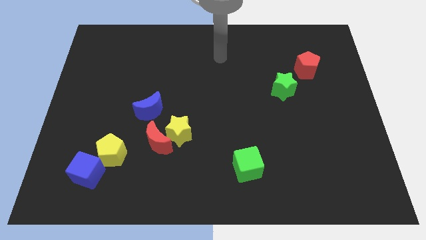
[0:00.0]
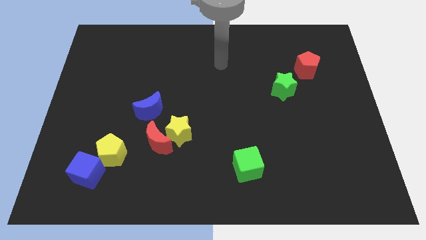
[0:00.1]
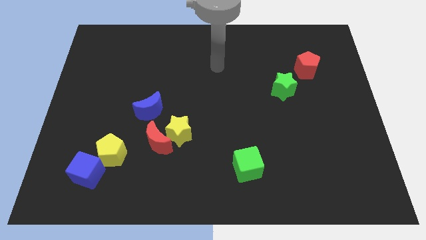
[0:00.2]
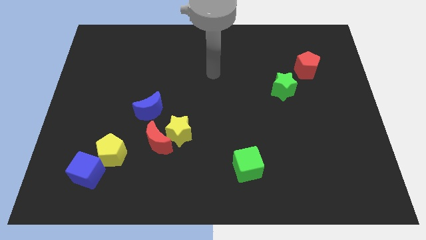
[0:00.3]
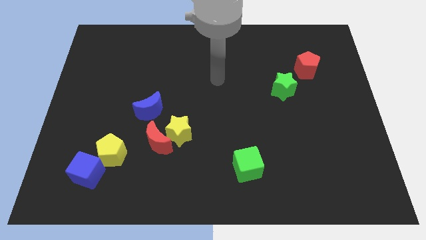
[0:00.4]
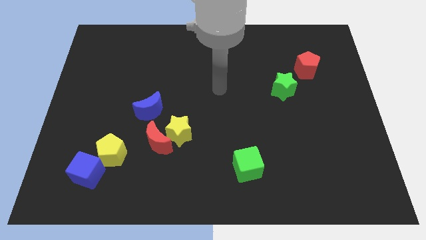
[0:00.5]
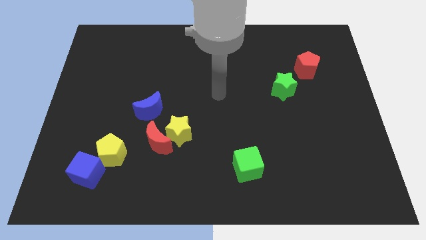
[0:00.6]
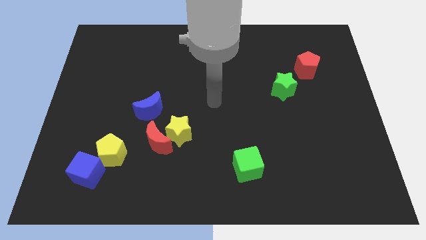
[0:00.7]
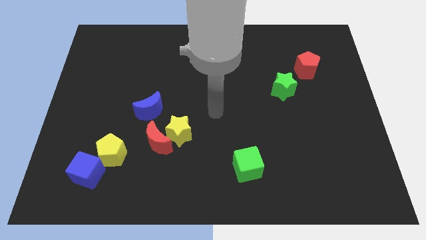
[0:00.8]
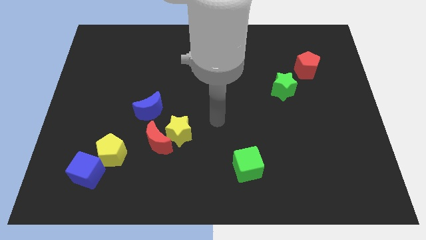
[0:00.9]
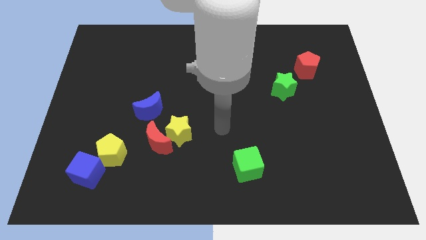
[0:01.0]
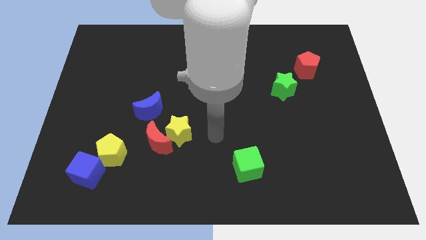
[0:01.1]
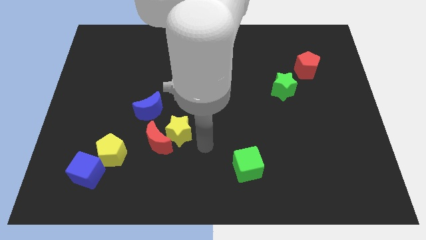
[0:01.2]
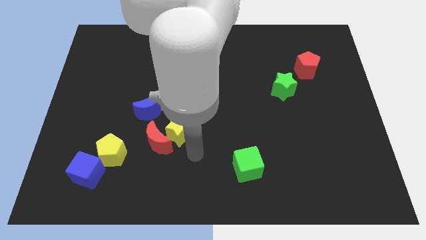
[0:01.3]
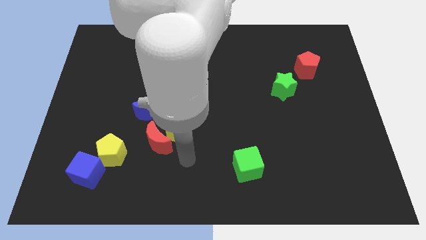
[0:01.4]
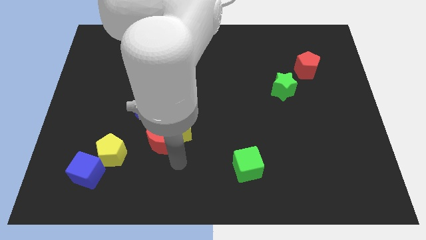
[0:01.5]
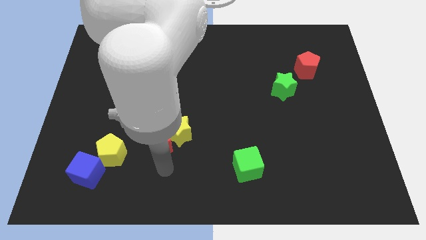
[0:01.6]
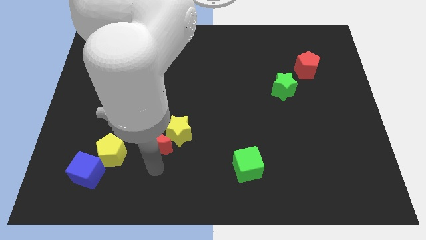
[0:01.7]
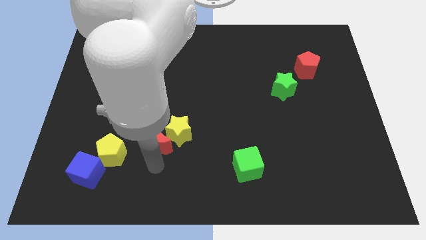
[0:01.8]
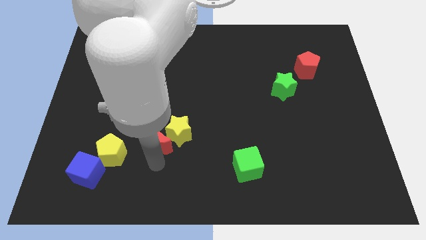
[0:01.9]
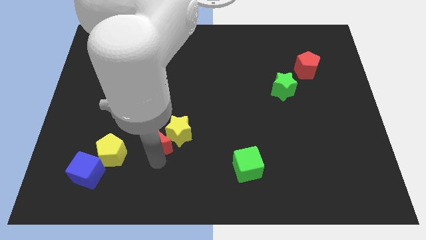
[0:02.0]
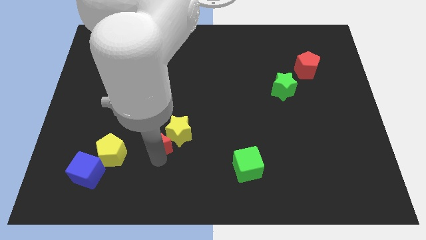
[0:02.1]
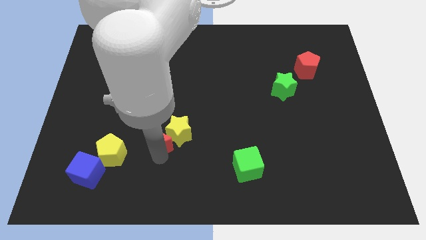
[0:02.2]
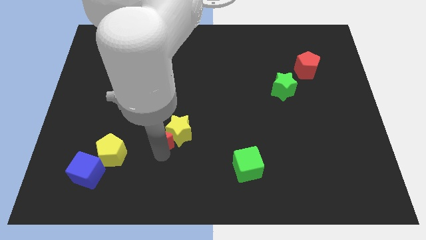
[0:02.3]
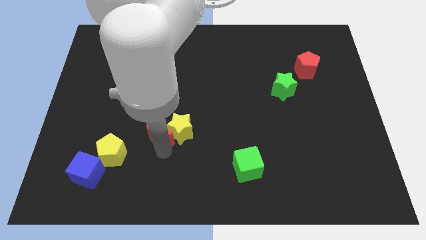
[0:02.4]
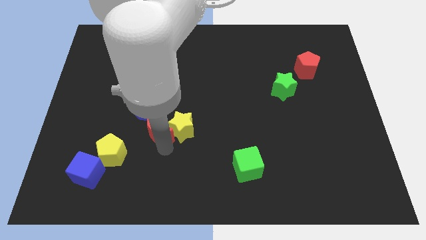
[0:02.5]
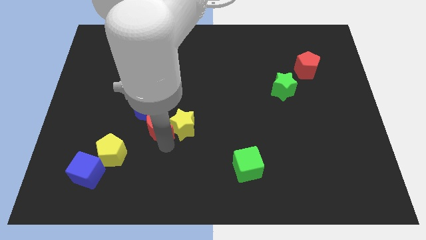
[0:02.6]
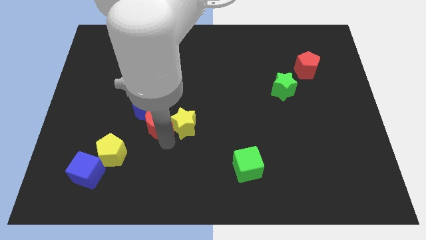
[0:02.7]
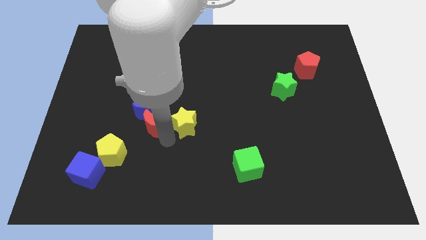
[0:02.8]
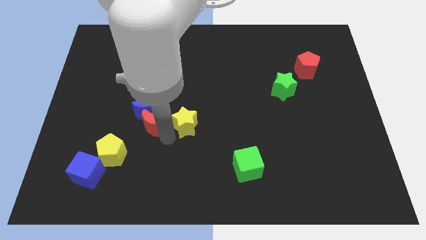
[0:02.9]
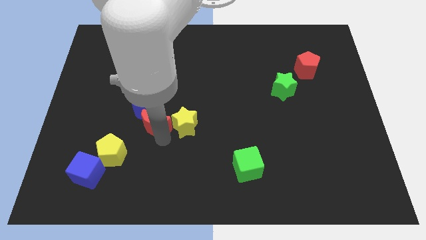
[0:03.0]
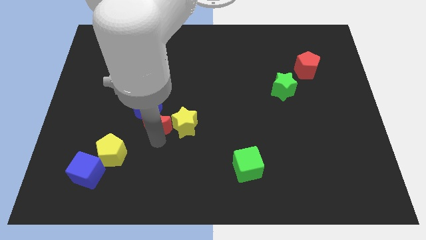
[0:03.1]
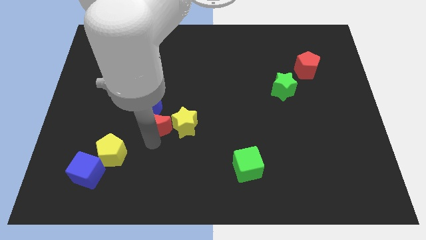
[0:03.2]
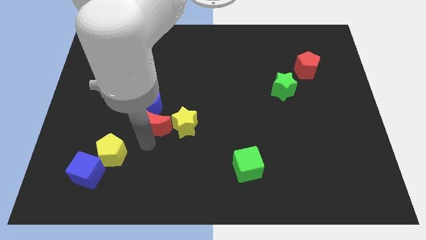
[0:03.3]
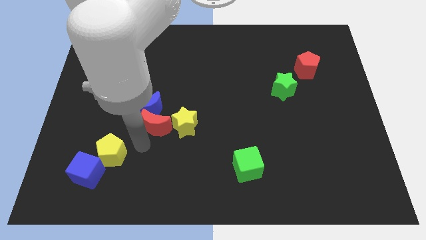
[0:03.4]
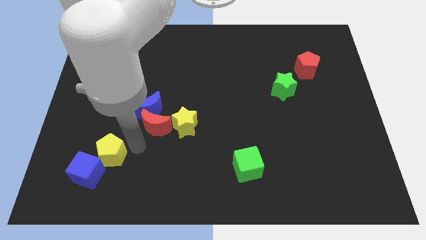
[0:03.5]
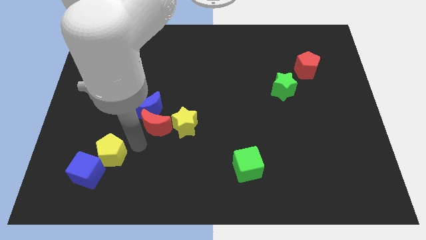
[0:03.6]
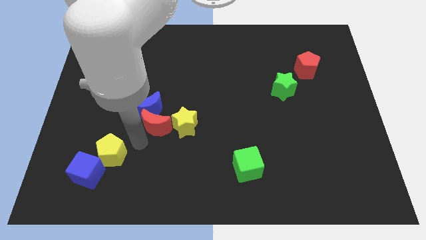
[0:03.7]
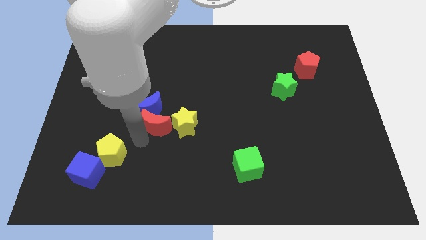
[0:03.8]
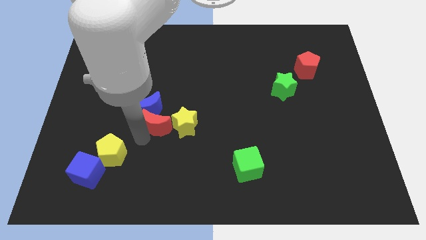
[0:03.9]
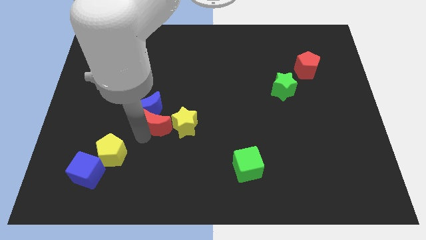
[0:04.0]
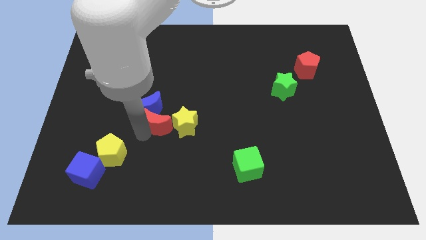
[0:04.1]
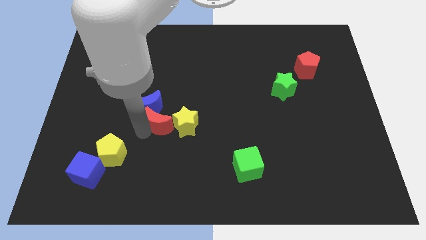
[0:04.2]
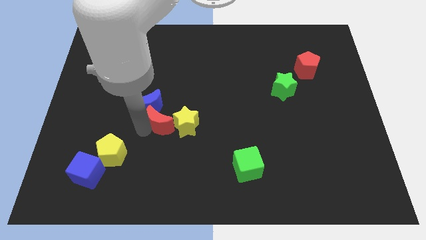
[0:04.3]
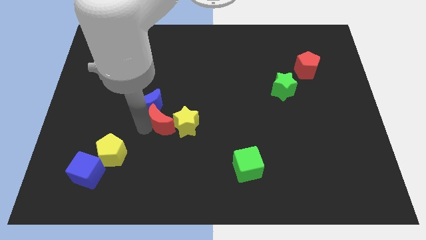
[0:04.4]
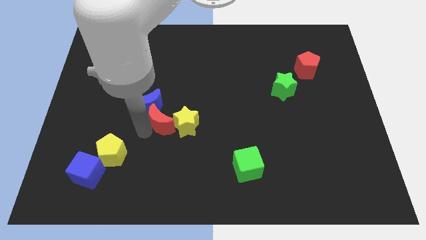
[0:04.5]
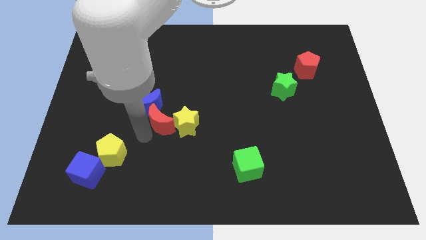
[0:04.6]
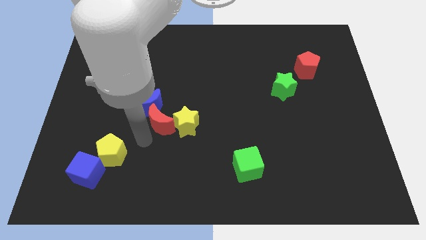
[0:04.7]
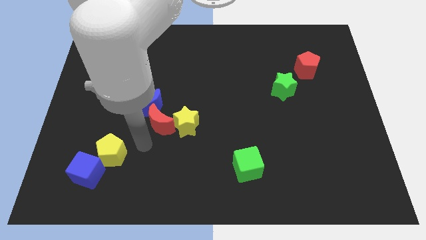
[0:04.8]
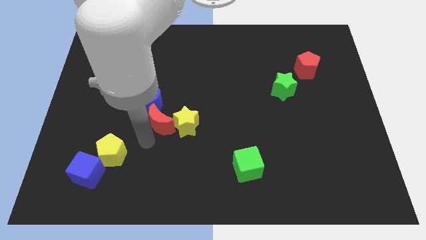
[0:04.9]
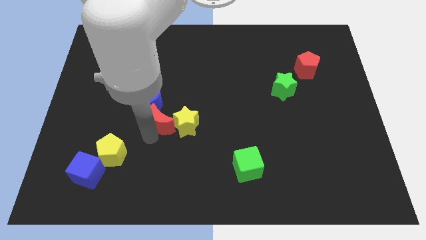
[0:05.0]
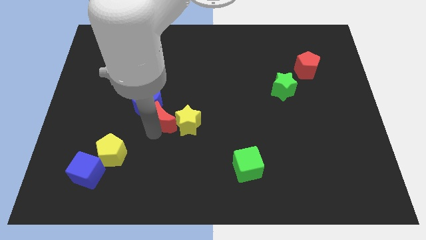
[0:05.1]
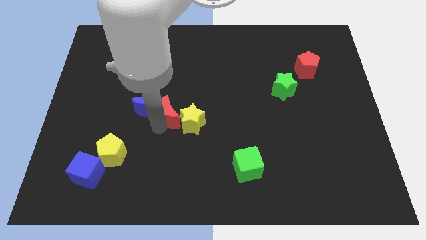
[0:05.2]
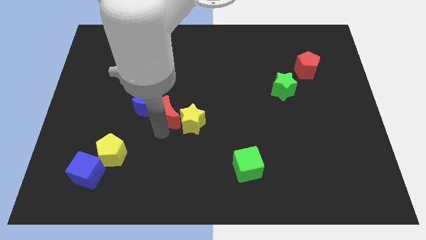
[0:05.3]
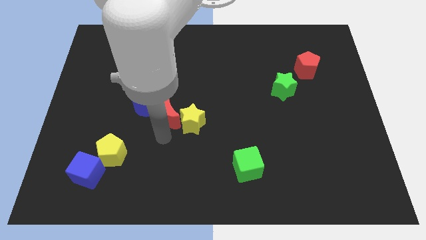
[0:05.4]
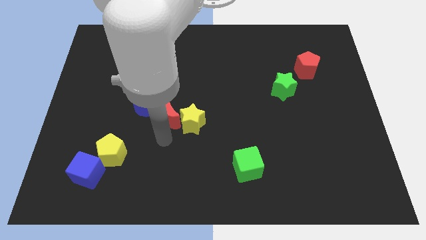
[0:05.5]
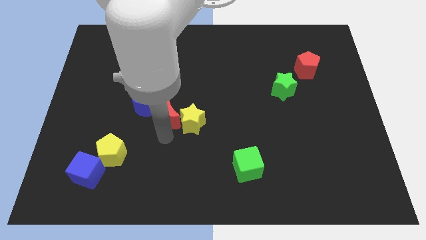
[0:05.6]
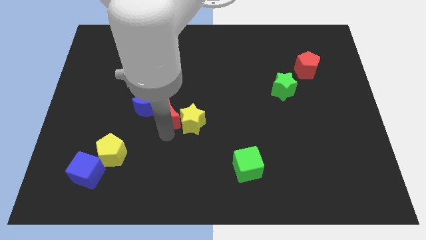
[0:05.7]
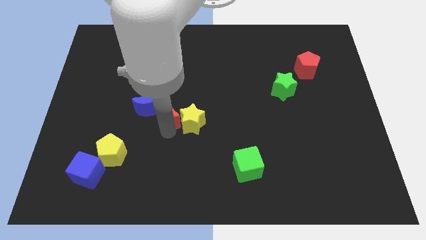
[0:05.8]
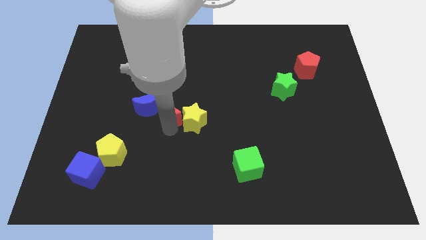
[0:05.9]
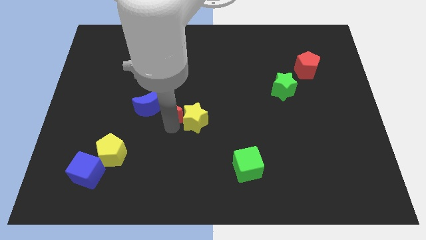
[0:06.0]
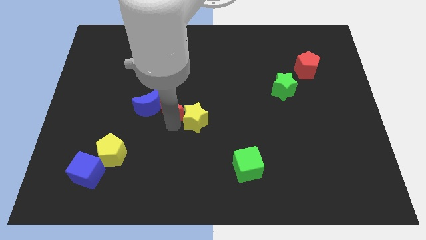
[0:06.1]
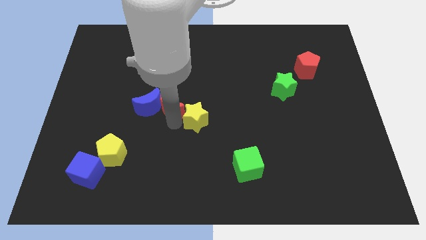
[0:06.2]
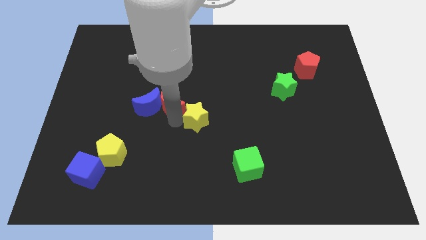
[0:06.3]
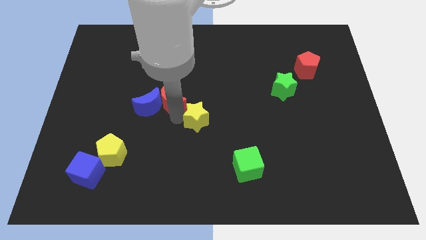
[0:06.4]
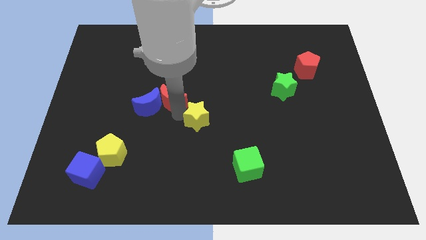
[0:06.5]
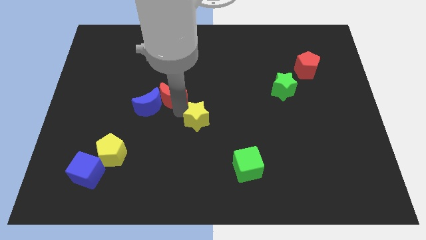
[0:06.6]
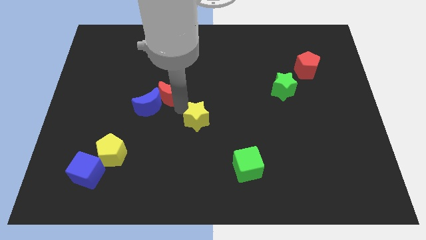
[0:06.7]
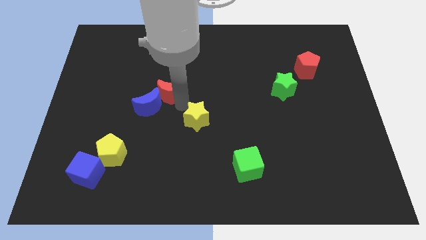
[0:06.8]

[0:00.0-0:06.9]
slide the red moon to the top of the blue moon

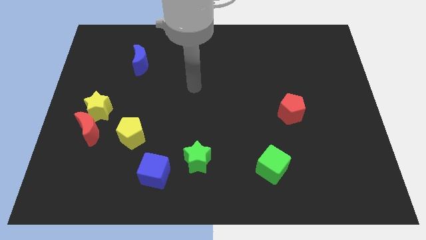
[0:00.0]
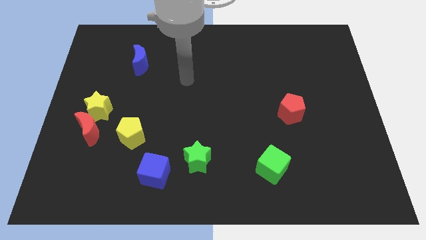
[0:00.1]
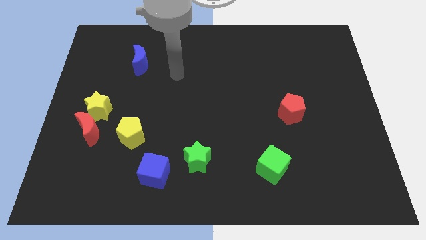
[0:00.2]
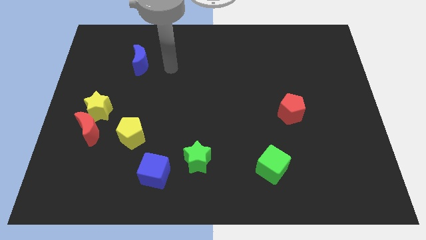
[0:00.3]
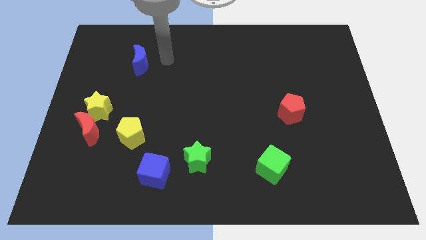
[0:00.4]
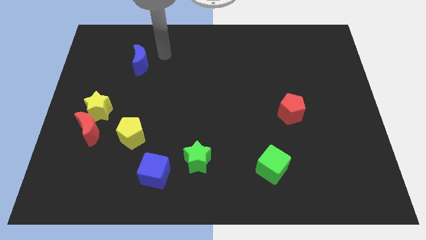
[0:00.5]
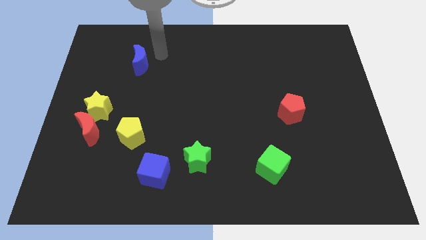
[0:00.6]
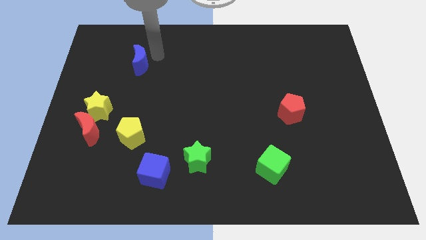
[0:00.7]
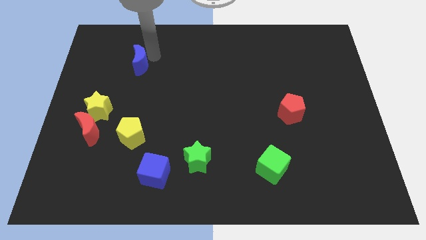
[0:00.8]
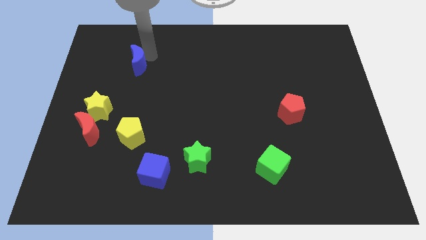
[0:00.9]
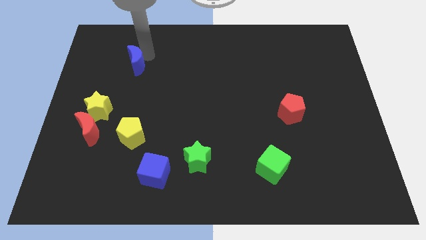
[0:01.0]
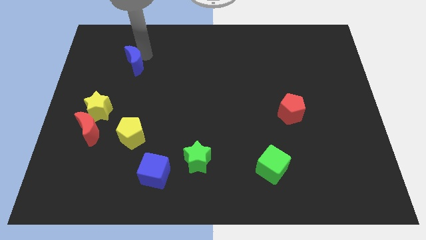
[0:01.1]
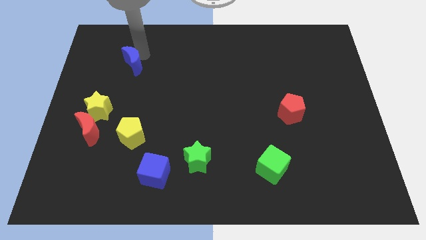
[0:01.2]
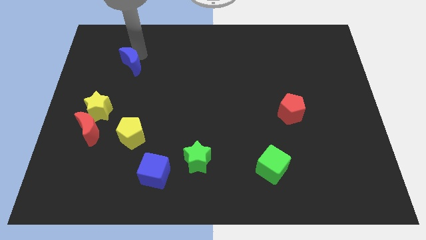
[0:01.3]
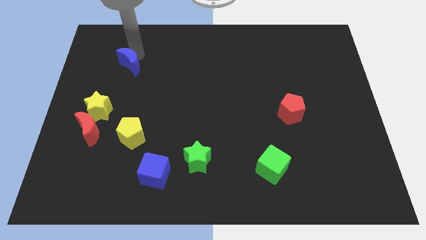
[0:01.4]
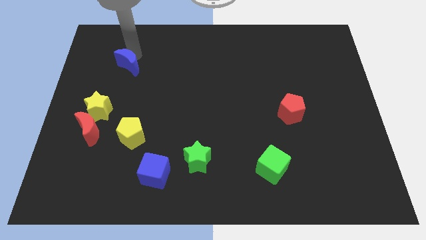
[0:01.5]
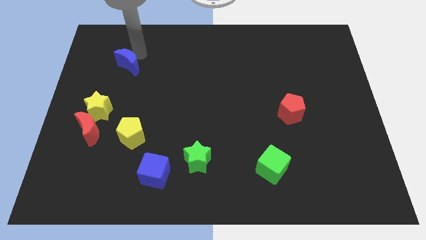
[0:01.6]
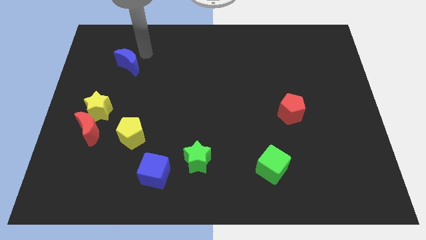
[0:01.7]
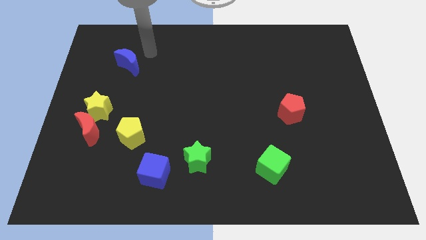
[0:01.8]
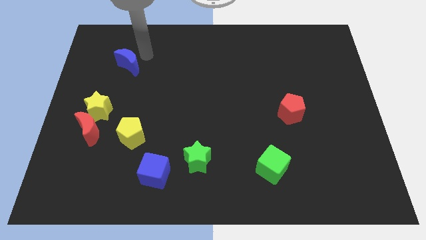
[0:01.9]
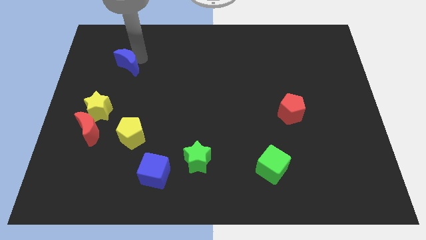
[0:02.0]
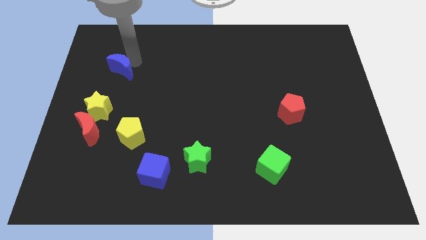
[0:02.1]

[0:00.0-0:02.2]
move the blue moon to the top side of the yellow star
